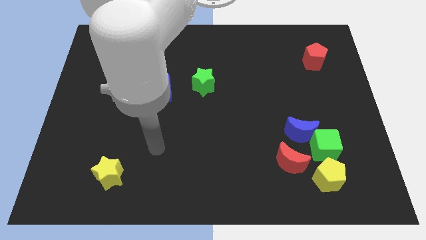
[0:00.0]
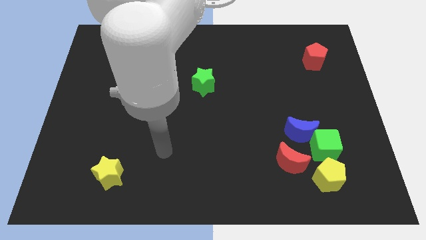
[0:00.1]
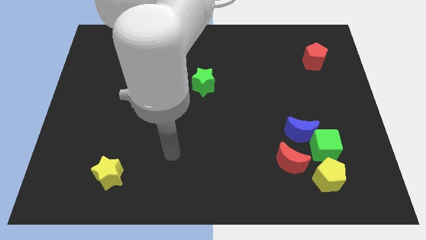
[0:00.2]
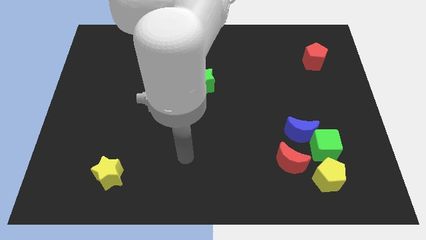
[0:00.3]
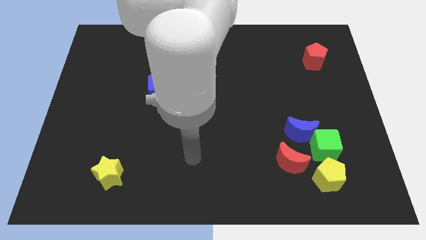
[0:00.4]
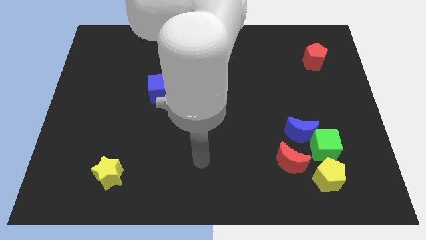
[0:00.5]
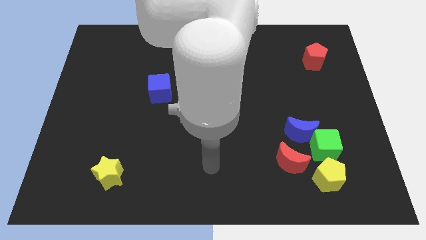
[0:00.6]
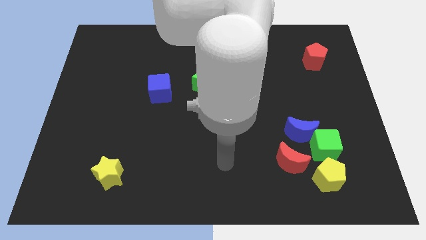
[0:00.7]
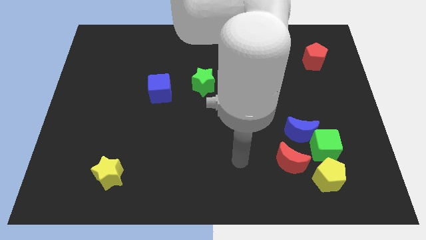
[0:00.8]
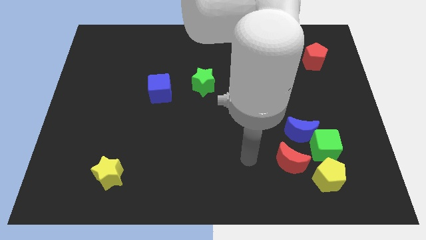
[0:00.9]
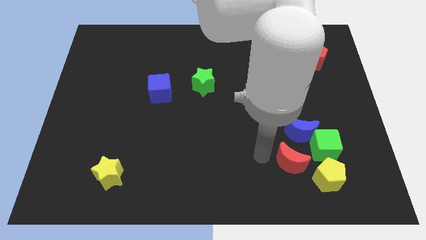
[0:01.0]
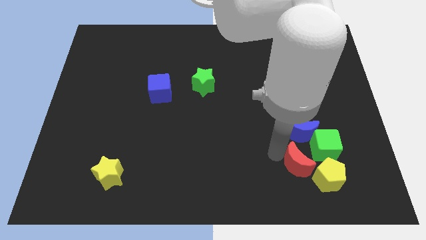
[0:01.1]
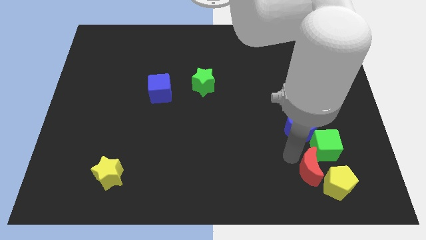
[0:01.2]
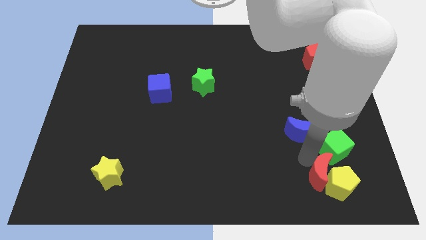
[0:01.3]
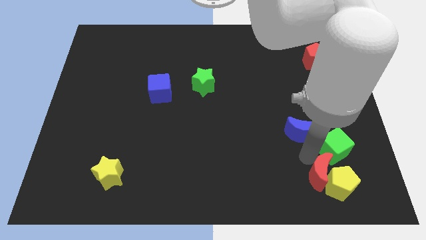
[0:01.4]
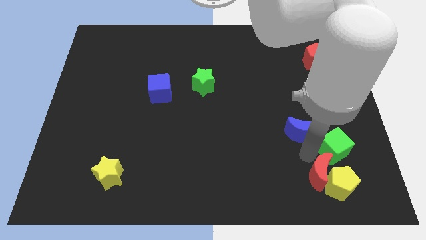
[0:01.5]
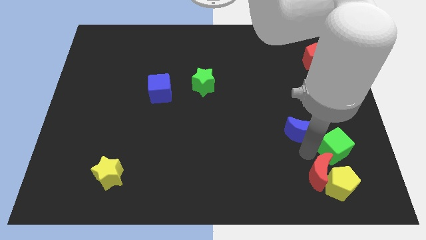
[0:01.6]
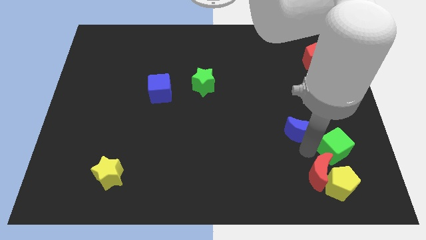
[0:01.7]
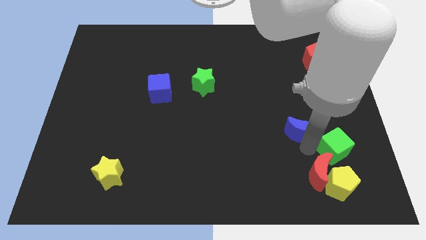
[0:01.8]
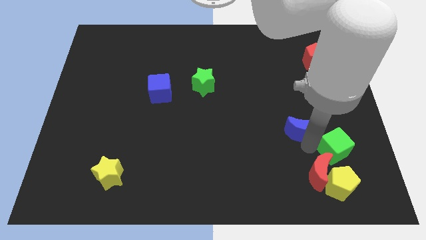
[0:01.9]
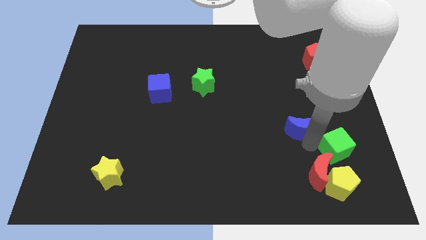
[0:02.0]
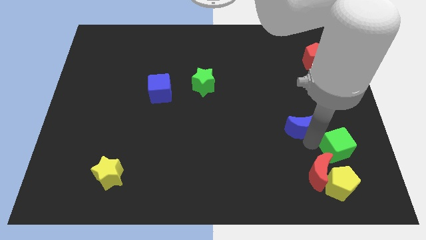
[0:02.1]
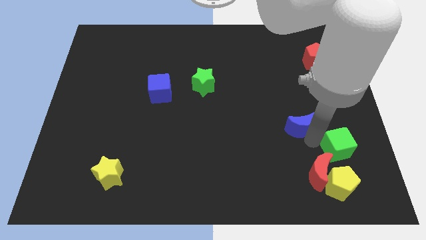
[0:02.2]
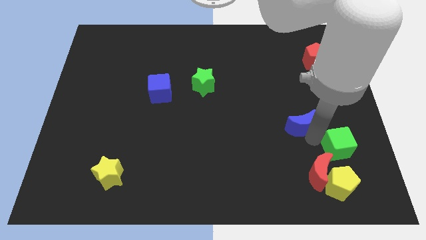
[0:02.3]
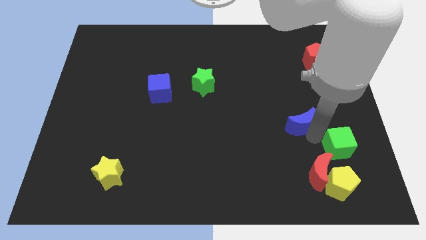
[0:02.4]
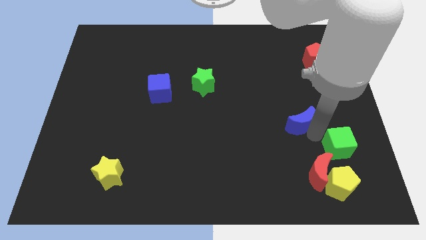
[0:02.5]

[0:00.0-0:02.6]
separate the blue moon from the green cube and red moon

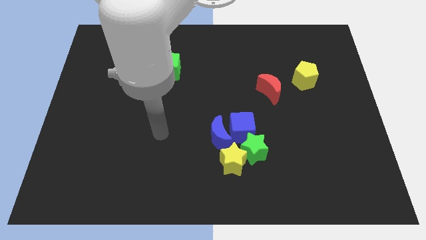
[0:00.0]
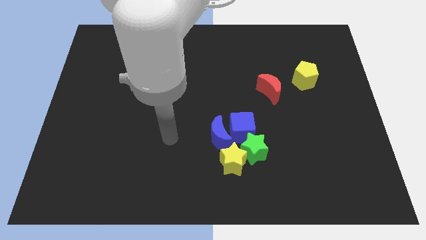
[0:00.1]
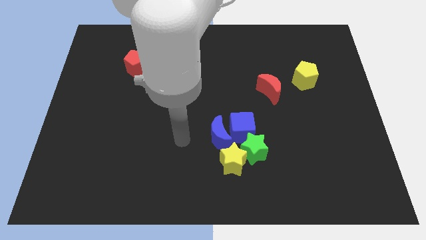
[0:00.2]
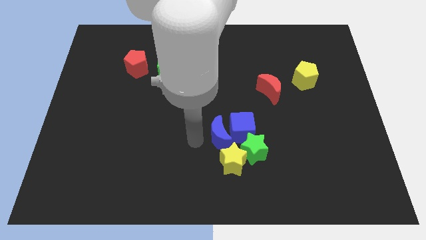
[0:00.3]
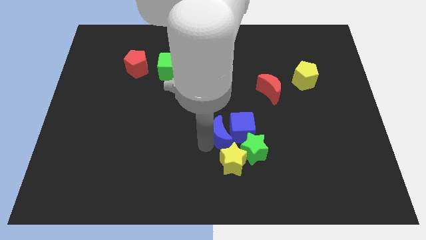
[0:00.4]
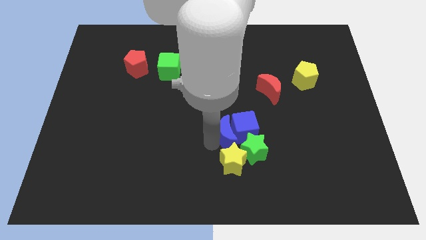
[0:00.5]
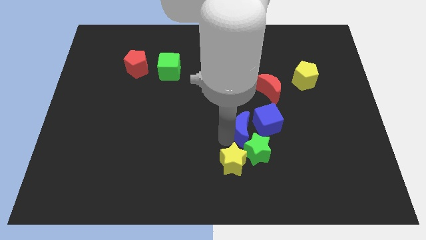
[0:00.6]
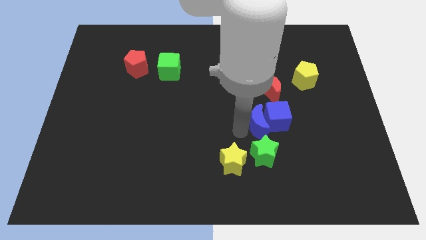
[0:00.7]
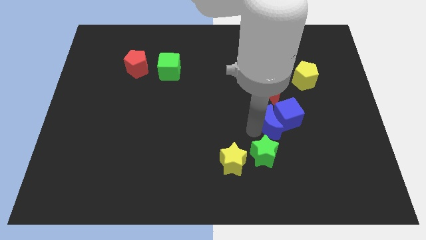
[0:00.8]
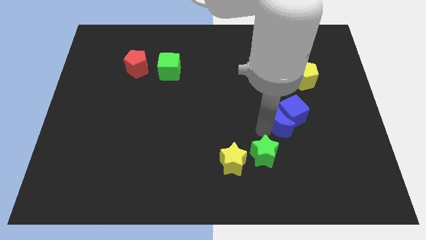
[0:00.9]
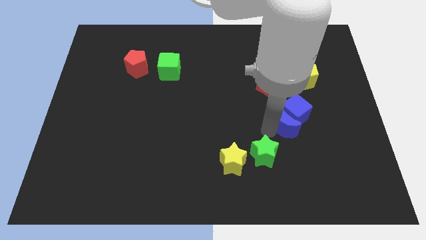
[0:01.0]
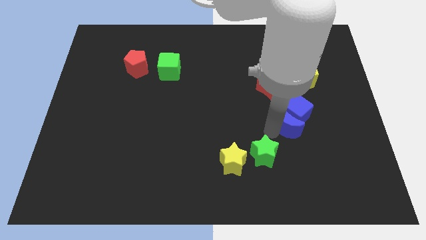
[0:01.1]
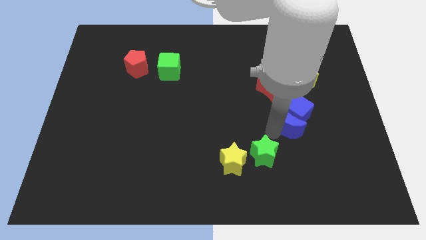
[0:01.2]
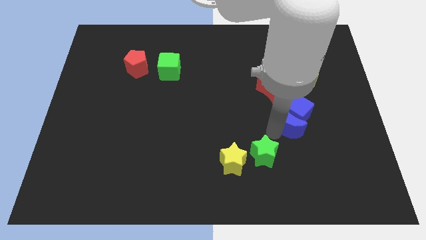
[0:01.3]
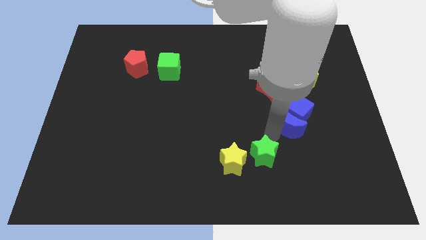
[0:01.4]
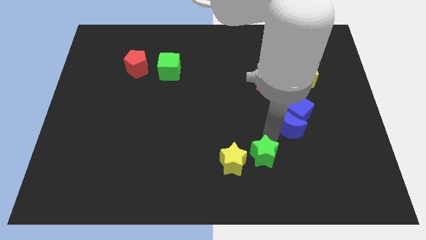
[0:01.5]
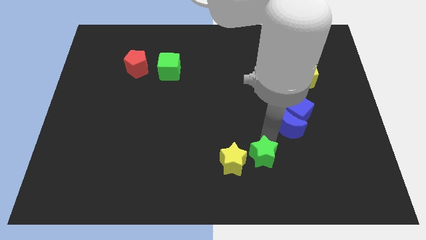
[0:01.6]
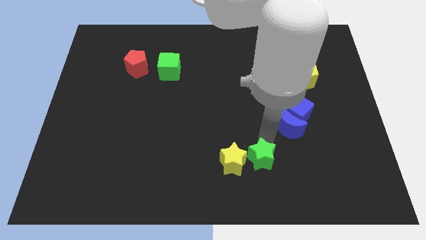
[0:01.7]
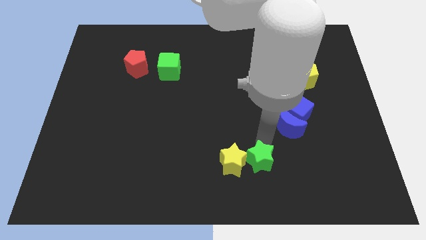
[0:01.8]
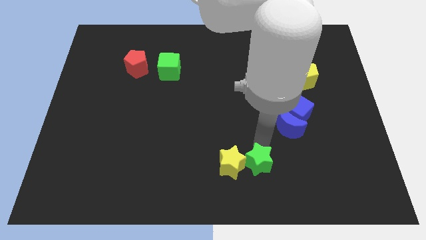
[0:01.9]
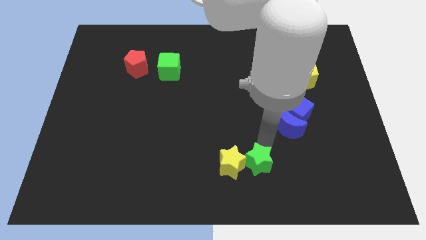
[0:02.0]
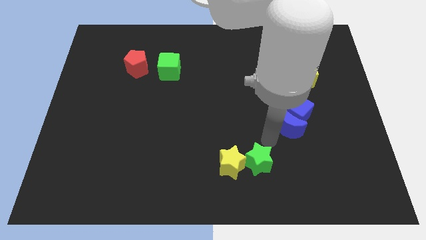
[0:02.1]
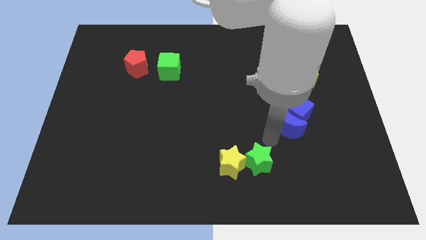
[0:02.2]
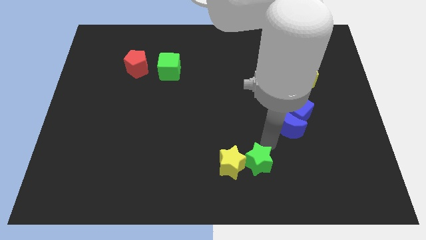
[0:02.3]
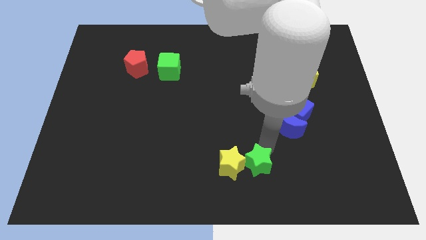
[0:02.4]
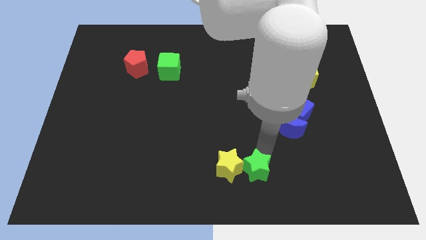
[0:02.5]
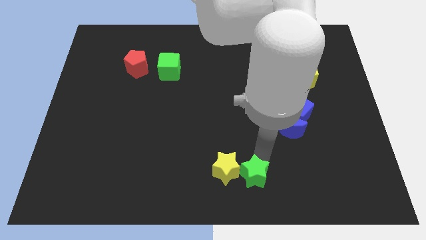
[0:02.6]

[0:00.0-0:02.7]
pull the green star apart from the yellow star, blue cube, and blue moon

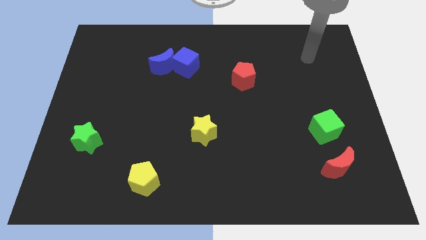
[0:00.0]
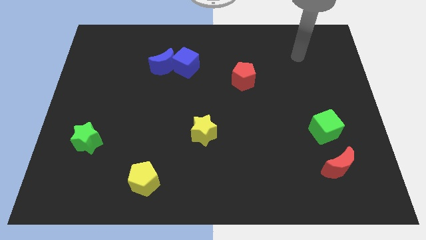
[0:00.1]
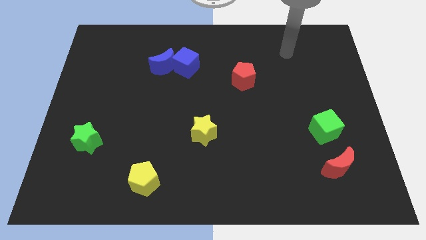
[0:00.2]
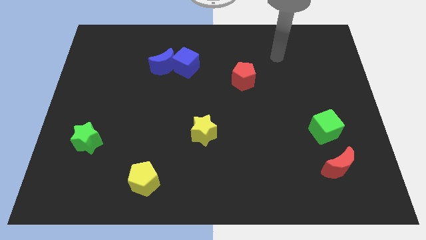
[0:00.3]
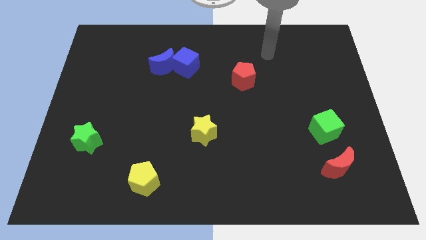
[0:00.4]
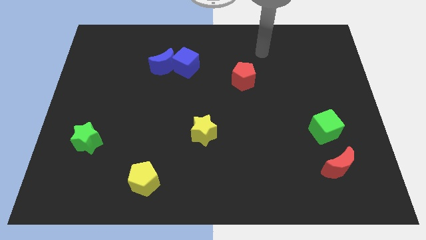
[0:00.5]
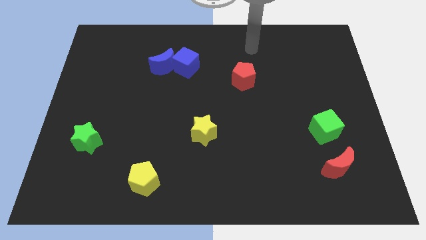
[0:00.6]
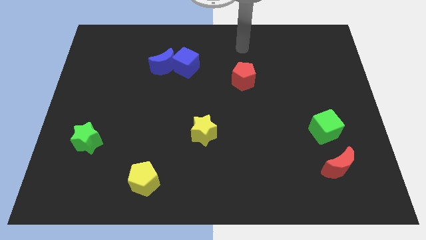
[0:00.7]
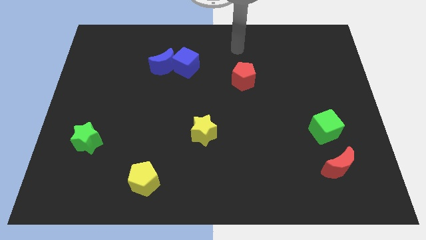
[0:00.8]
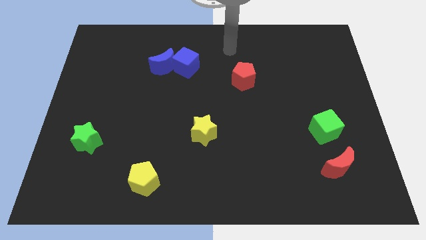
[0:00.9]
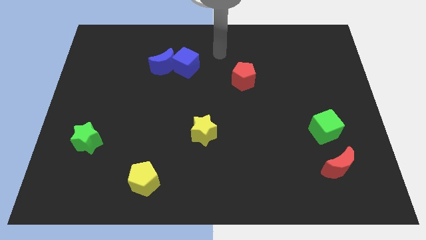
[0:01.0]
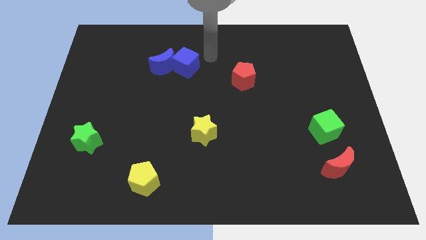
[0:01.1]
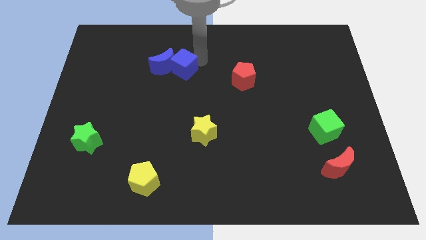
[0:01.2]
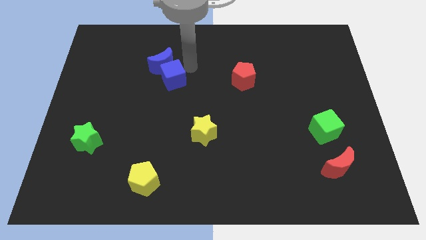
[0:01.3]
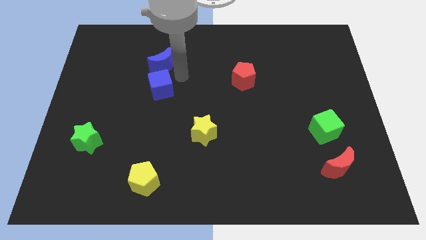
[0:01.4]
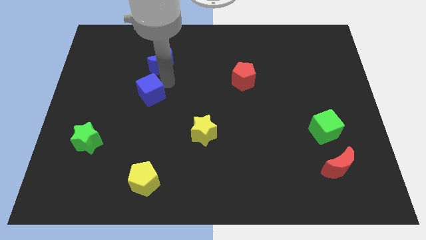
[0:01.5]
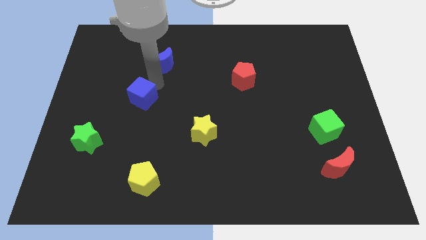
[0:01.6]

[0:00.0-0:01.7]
pull the blue moon apart from the blue cube

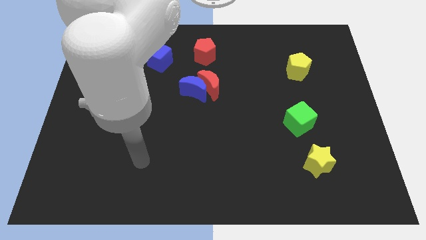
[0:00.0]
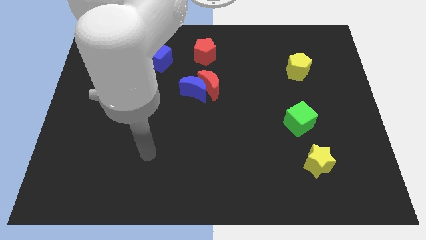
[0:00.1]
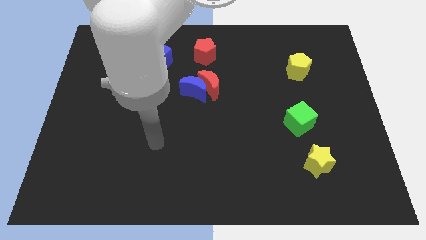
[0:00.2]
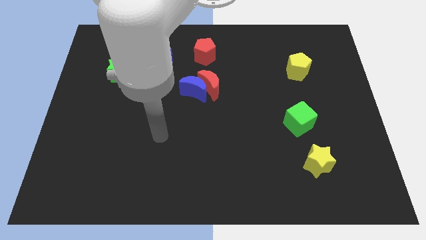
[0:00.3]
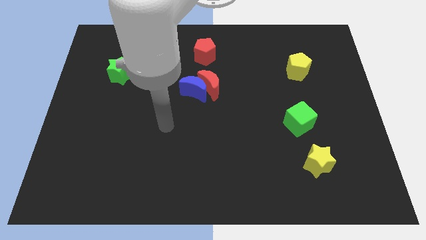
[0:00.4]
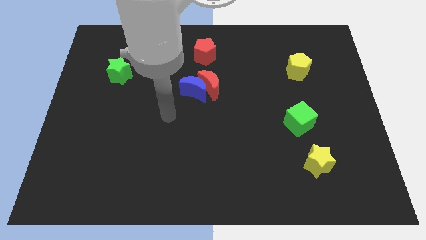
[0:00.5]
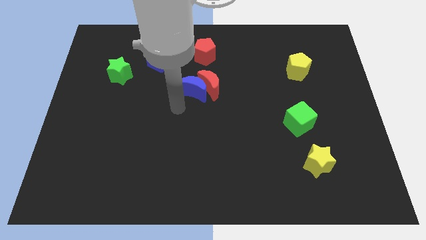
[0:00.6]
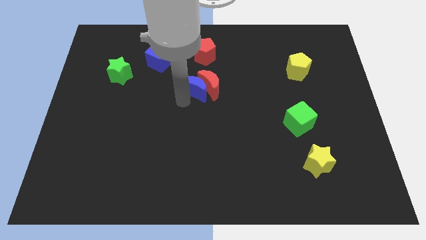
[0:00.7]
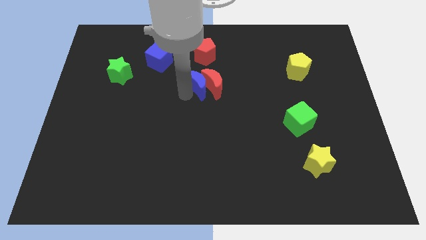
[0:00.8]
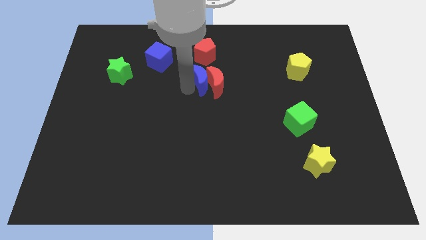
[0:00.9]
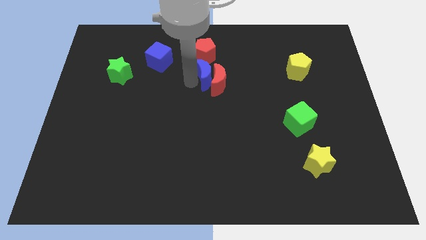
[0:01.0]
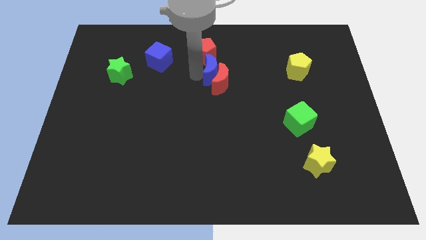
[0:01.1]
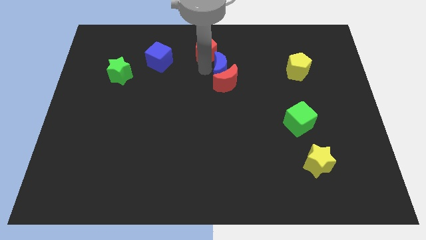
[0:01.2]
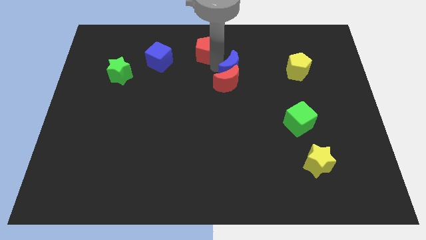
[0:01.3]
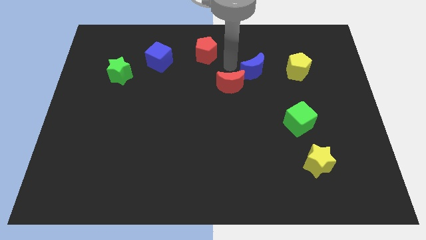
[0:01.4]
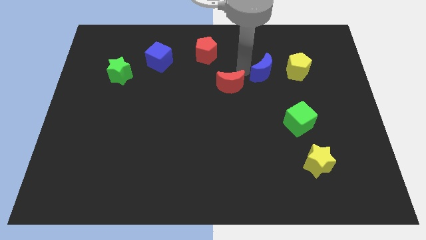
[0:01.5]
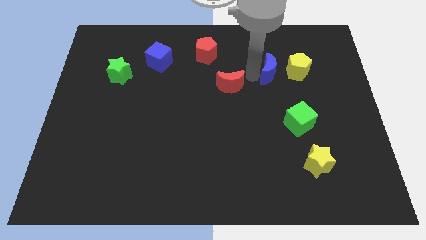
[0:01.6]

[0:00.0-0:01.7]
move the red moon away from the blue moon

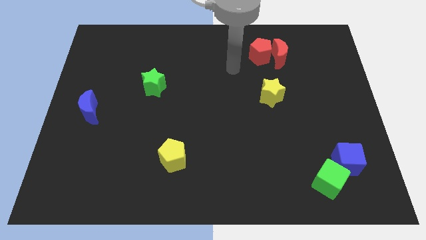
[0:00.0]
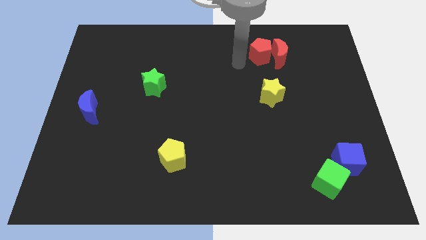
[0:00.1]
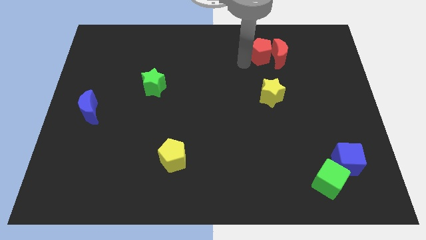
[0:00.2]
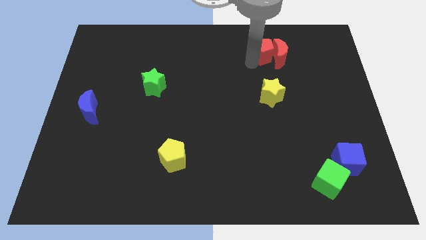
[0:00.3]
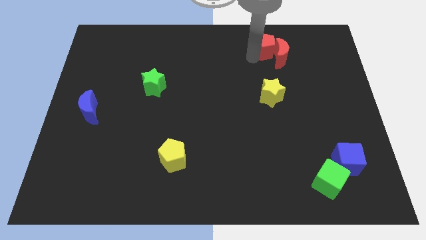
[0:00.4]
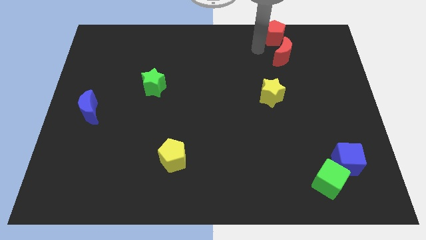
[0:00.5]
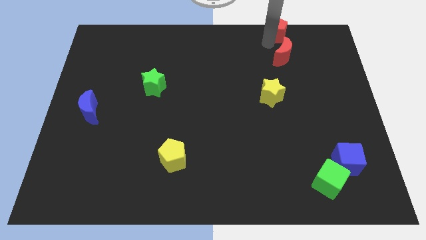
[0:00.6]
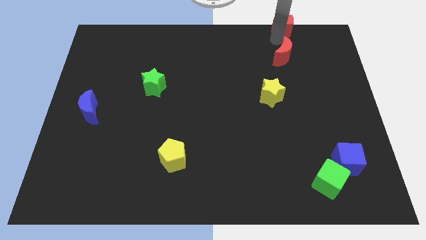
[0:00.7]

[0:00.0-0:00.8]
move the red moon away from the red pentagon
